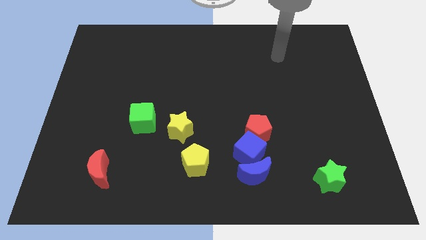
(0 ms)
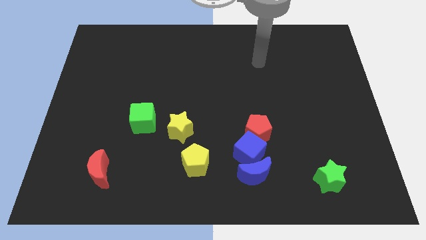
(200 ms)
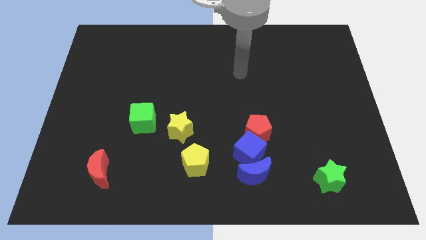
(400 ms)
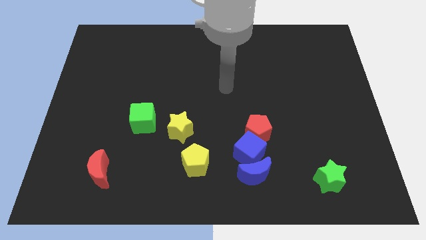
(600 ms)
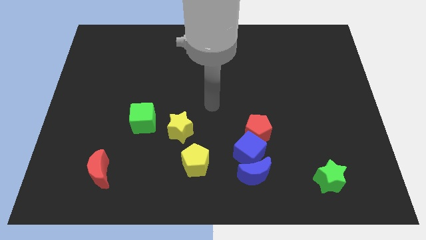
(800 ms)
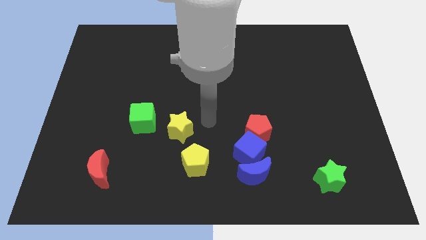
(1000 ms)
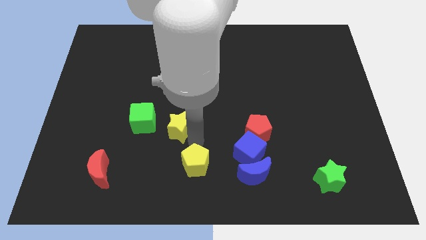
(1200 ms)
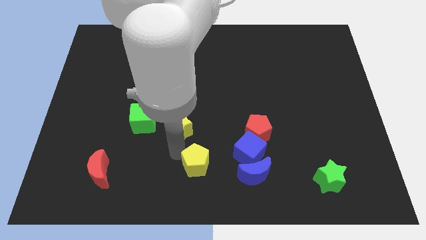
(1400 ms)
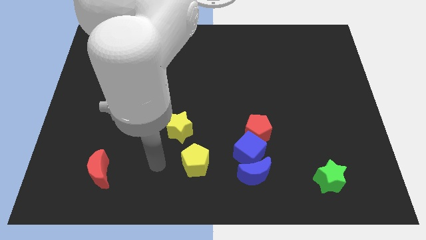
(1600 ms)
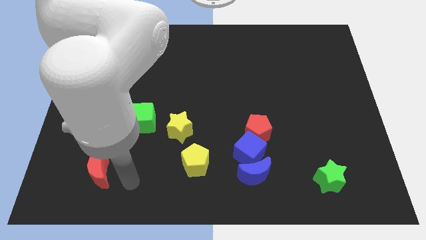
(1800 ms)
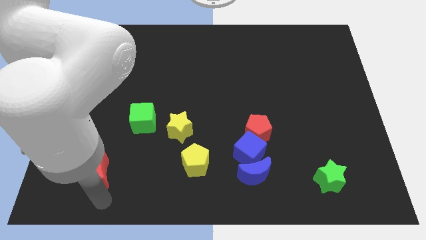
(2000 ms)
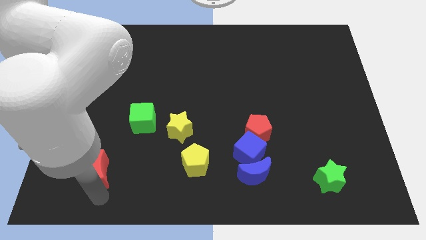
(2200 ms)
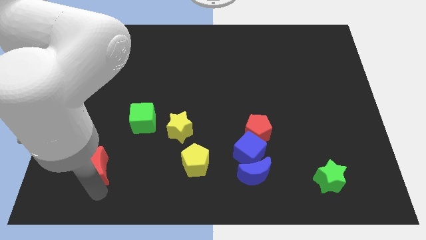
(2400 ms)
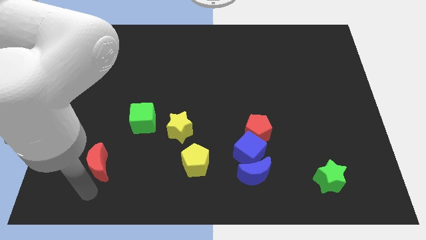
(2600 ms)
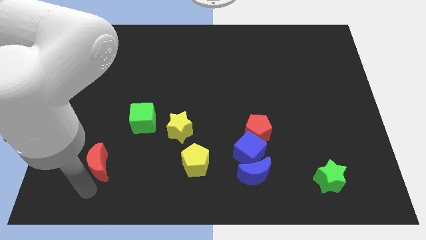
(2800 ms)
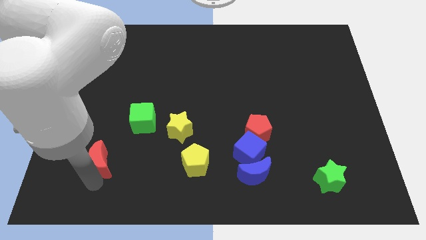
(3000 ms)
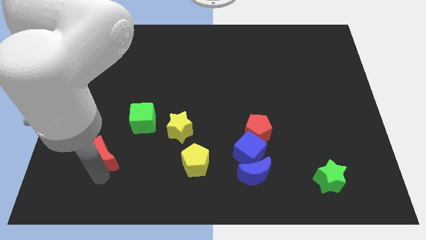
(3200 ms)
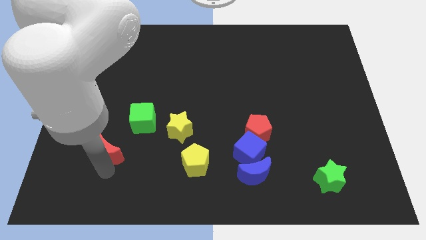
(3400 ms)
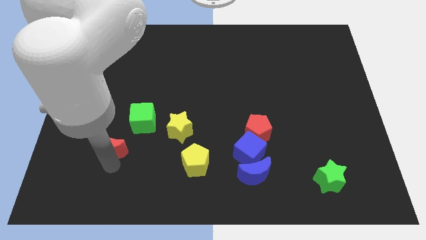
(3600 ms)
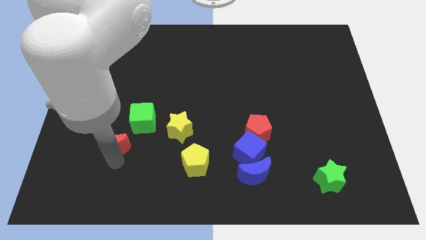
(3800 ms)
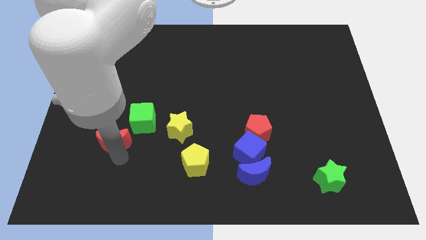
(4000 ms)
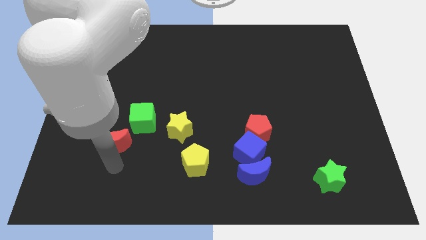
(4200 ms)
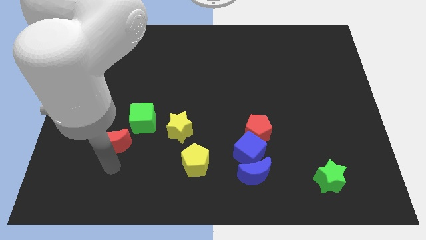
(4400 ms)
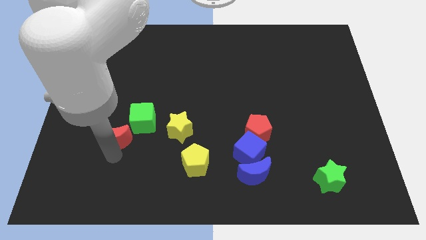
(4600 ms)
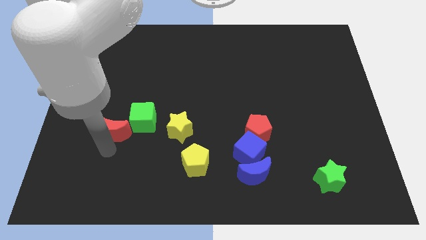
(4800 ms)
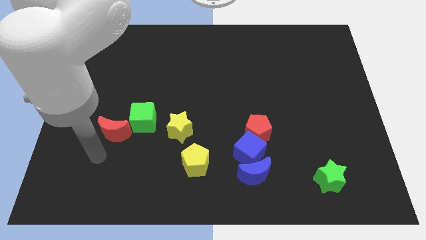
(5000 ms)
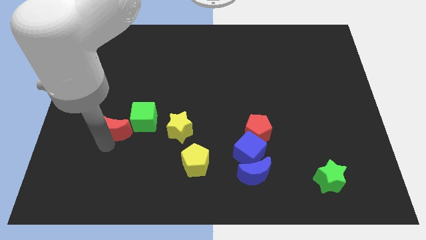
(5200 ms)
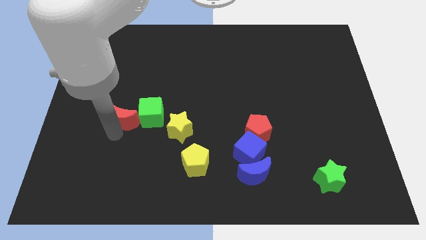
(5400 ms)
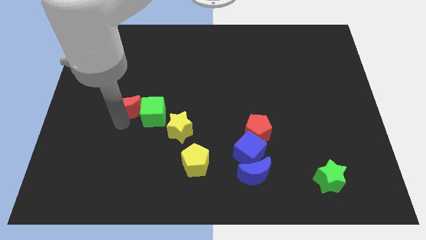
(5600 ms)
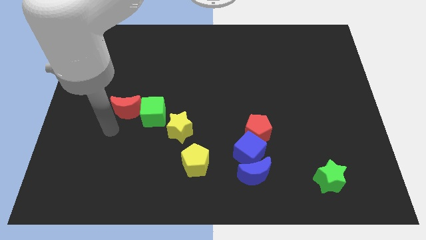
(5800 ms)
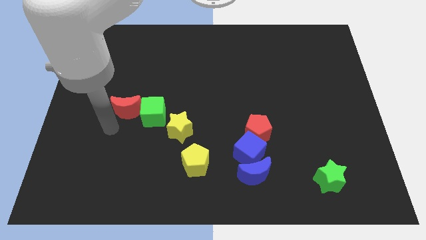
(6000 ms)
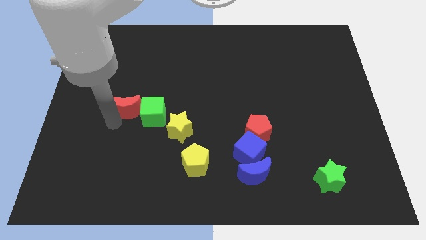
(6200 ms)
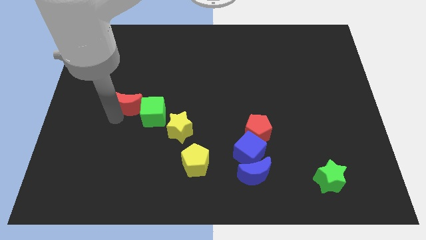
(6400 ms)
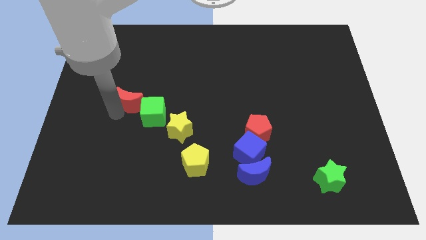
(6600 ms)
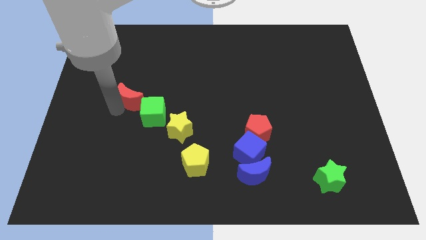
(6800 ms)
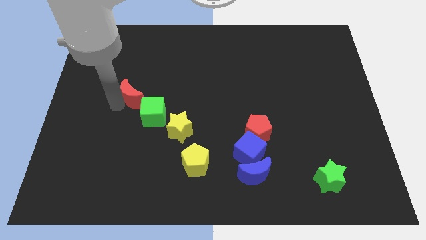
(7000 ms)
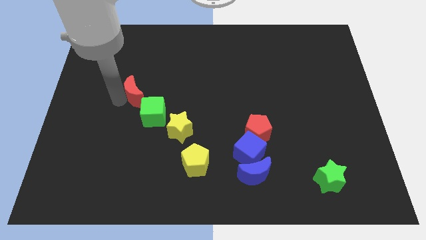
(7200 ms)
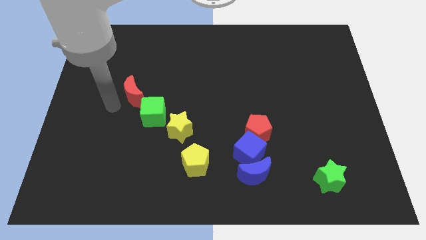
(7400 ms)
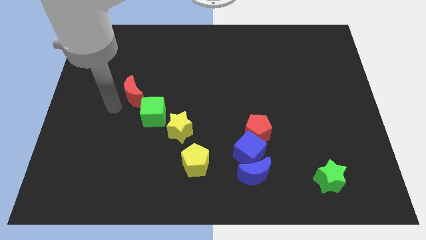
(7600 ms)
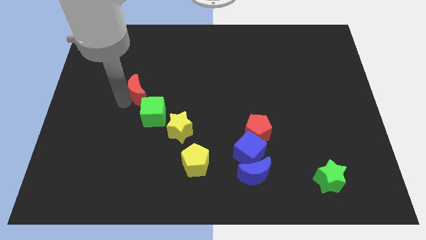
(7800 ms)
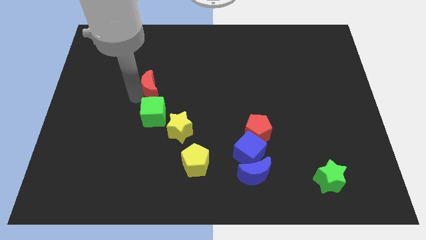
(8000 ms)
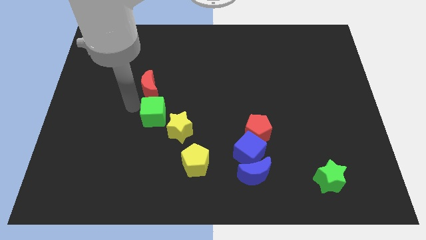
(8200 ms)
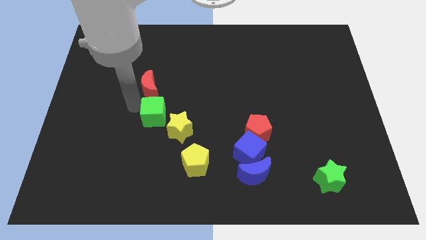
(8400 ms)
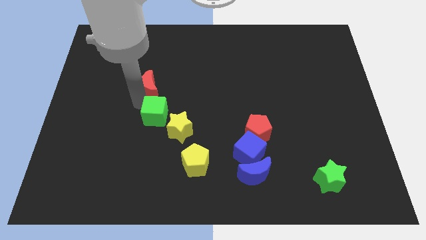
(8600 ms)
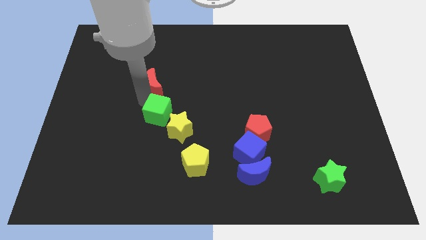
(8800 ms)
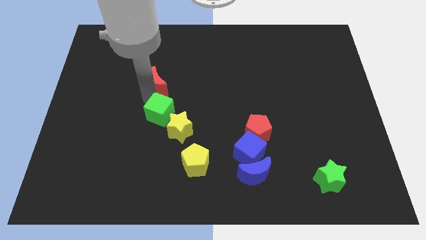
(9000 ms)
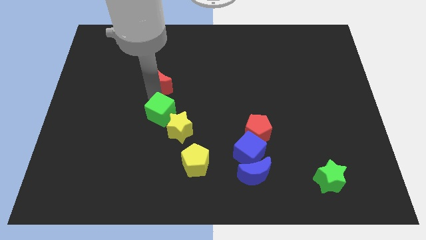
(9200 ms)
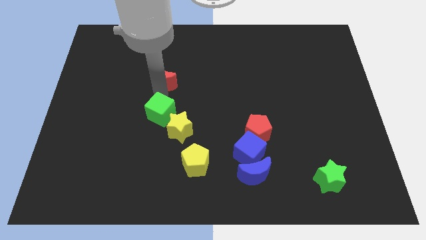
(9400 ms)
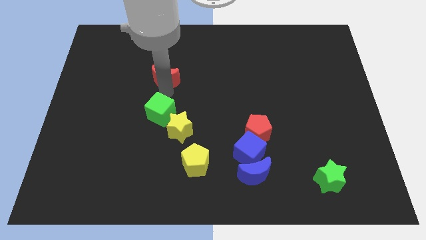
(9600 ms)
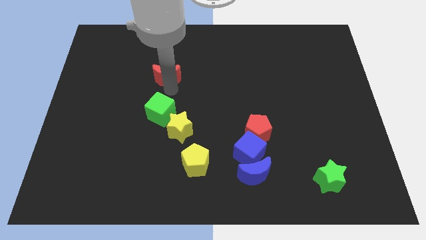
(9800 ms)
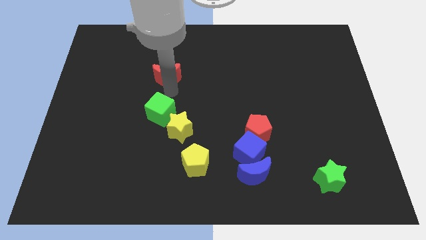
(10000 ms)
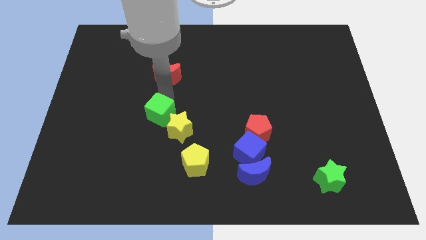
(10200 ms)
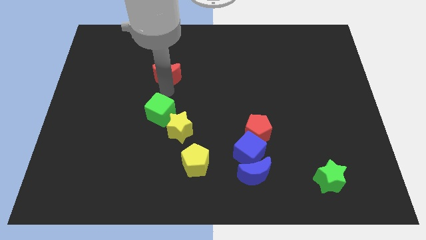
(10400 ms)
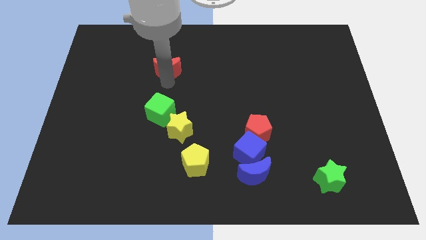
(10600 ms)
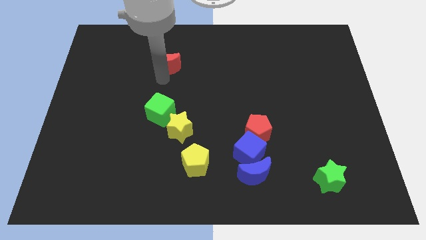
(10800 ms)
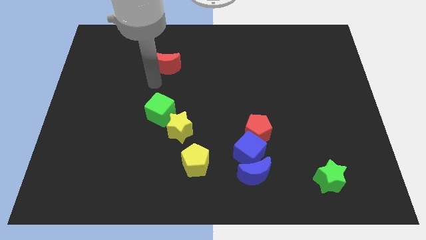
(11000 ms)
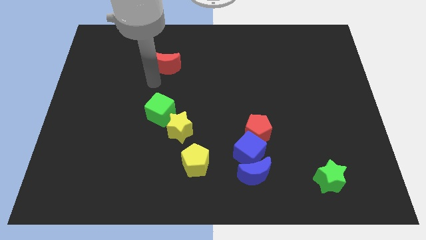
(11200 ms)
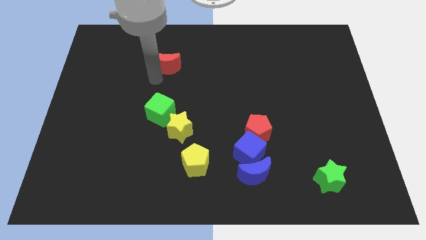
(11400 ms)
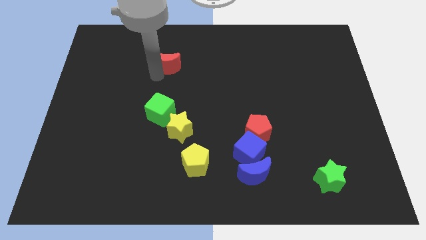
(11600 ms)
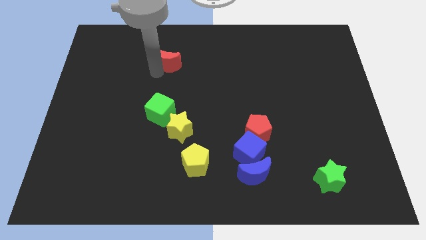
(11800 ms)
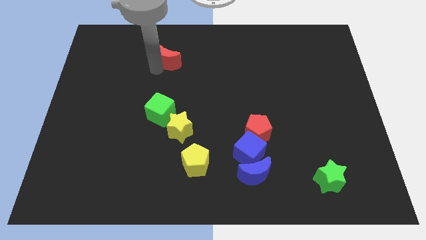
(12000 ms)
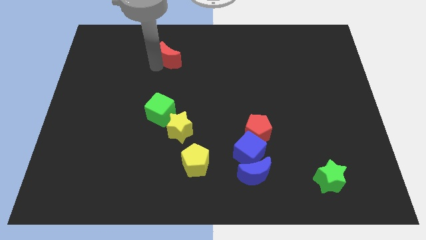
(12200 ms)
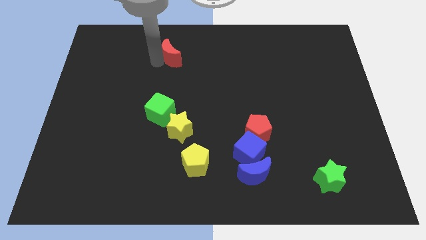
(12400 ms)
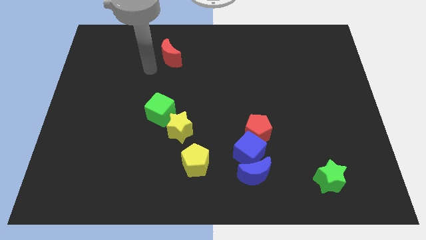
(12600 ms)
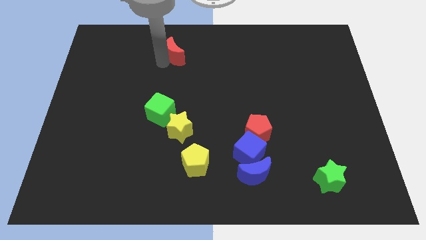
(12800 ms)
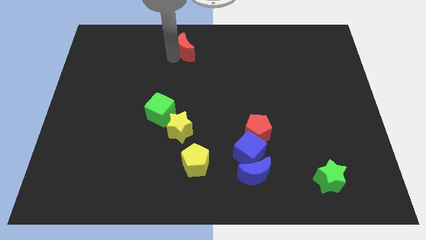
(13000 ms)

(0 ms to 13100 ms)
push the red moon to the top
